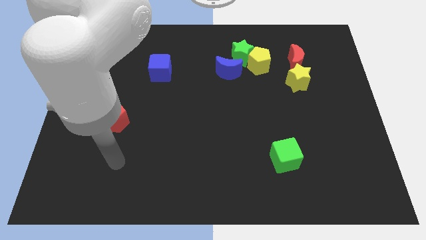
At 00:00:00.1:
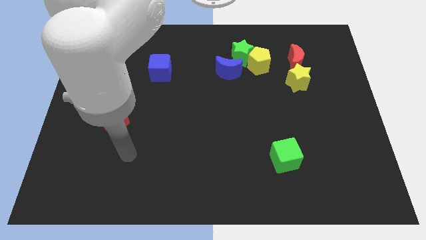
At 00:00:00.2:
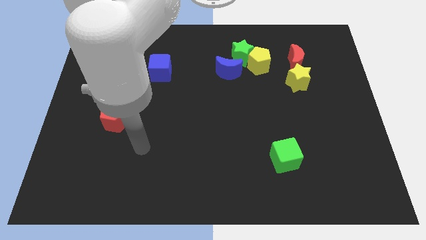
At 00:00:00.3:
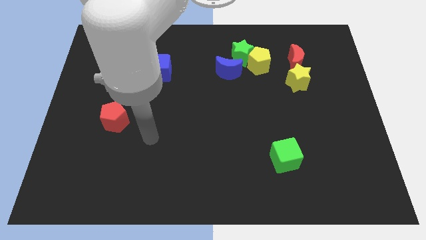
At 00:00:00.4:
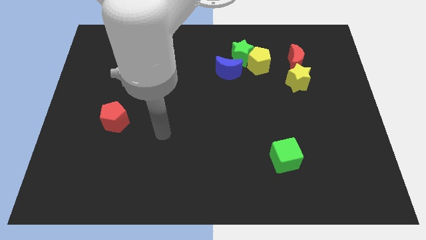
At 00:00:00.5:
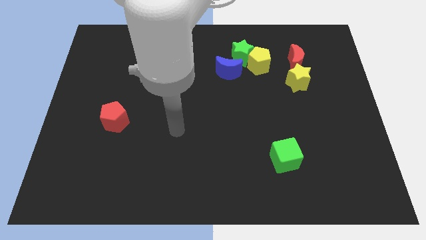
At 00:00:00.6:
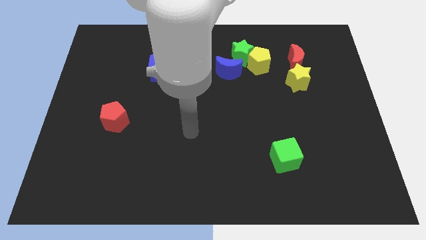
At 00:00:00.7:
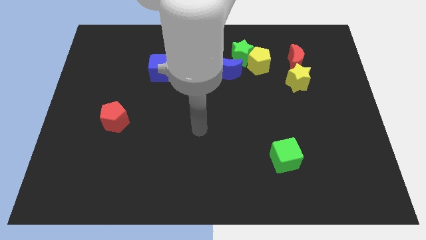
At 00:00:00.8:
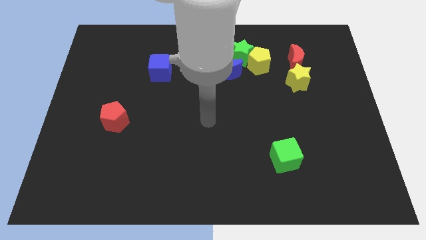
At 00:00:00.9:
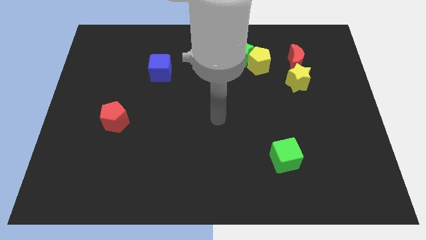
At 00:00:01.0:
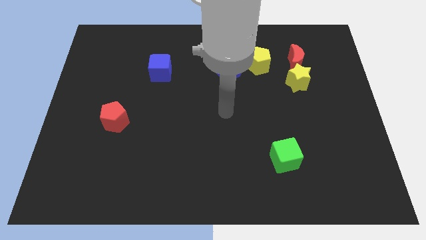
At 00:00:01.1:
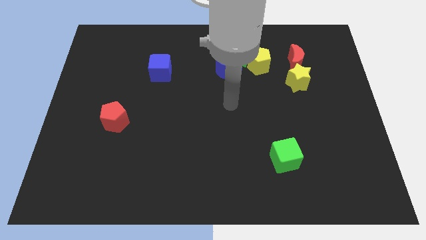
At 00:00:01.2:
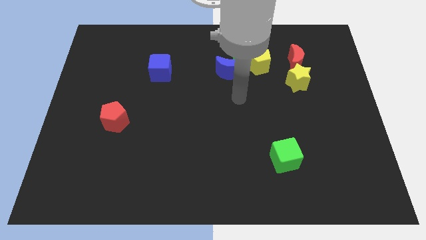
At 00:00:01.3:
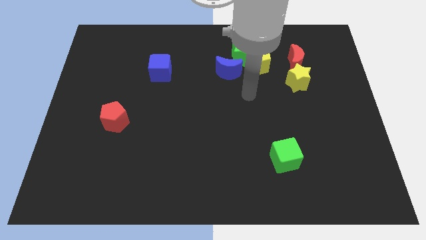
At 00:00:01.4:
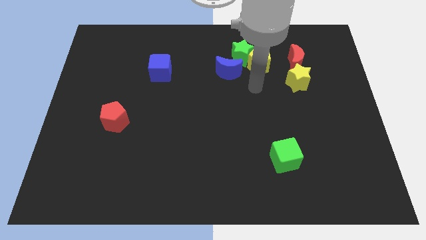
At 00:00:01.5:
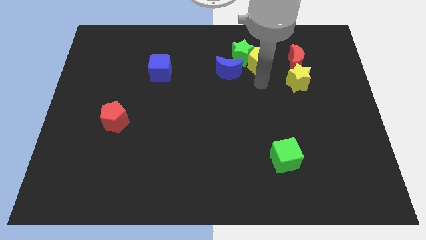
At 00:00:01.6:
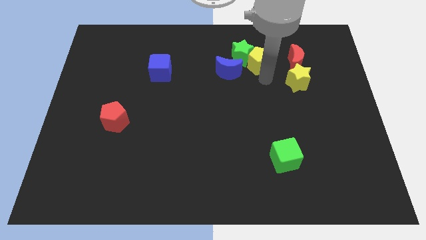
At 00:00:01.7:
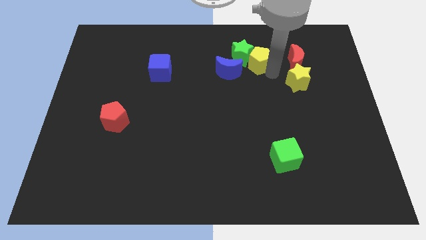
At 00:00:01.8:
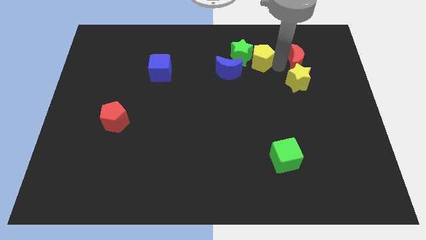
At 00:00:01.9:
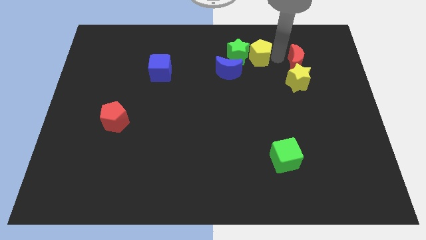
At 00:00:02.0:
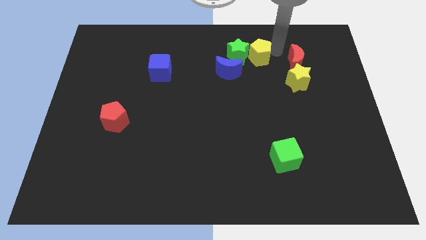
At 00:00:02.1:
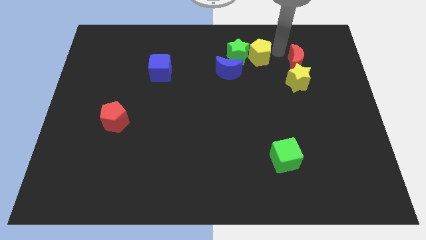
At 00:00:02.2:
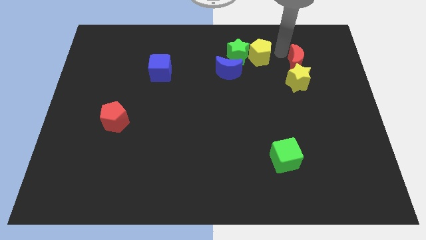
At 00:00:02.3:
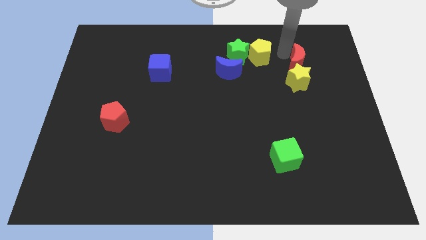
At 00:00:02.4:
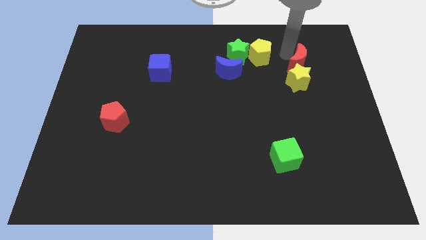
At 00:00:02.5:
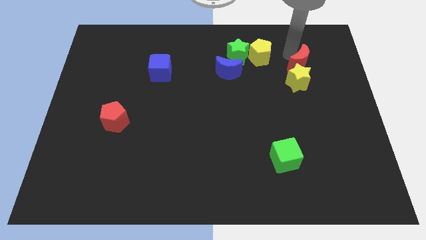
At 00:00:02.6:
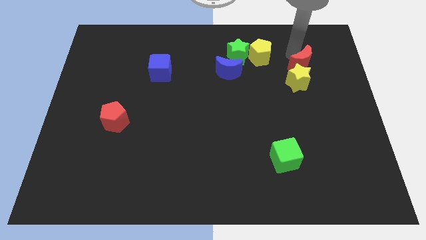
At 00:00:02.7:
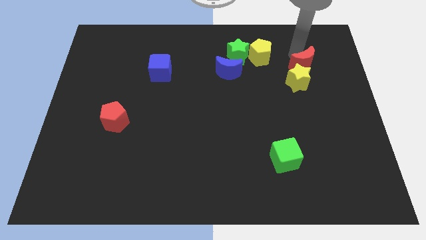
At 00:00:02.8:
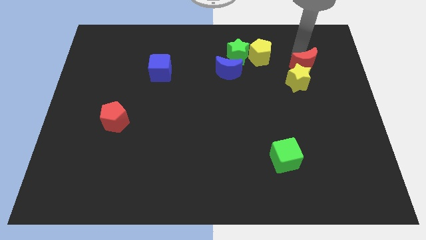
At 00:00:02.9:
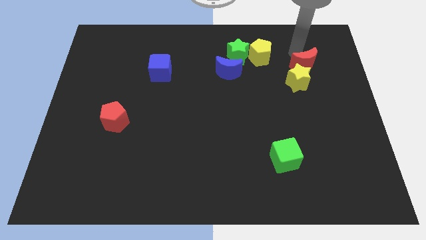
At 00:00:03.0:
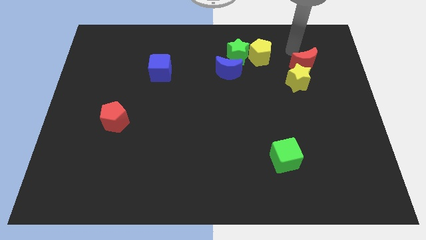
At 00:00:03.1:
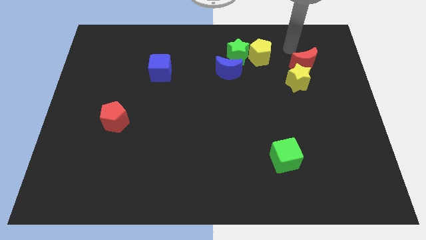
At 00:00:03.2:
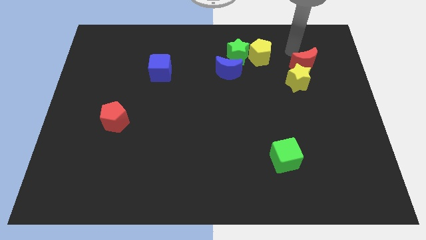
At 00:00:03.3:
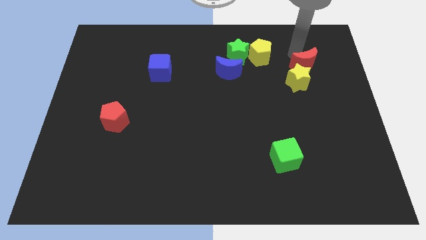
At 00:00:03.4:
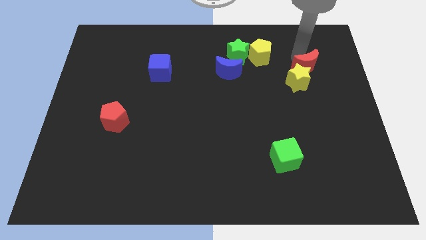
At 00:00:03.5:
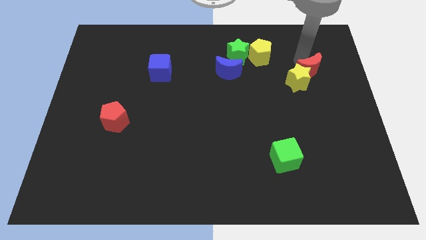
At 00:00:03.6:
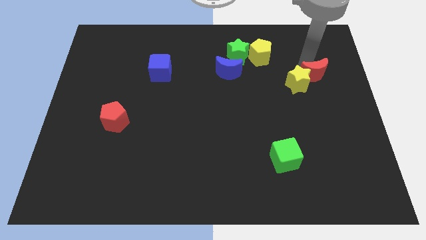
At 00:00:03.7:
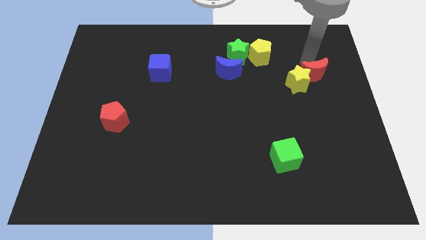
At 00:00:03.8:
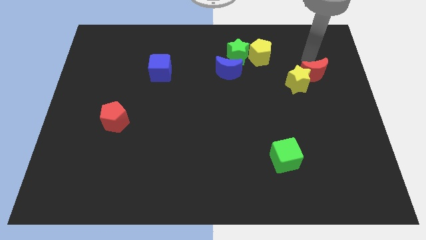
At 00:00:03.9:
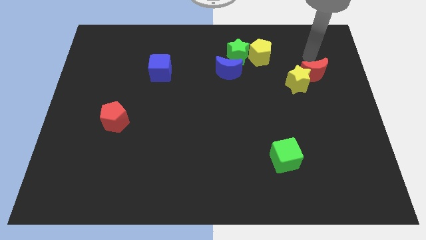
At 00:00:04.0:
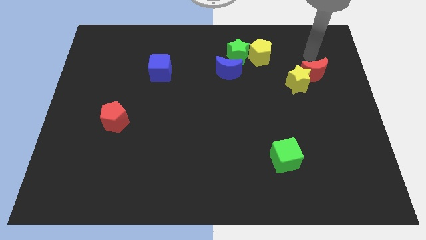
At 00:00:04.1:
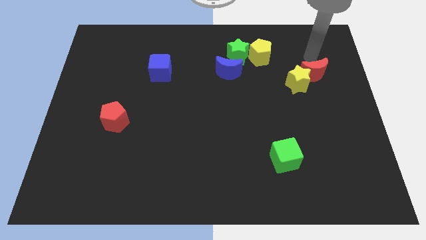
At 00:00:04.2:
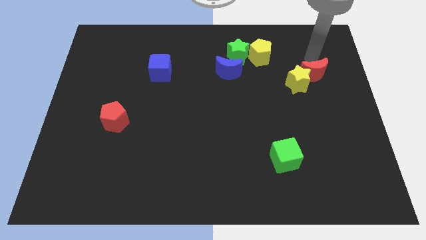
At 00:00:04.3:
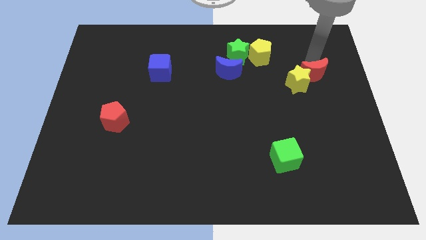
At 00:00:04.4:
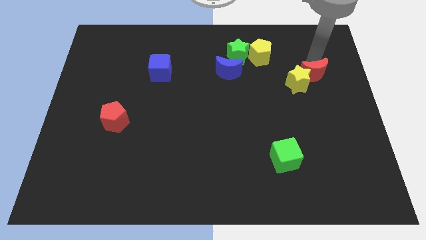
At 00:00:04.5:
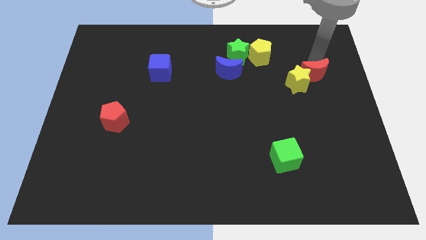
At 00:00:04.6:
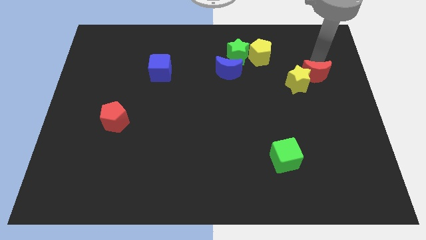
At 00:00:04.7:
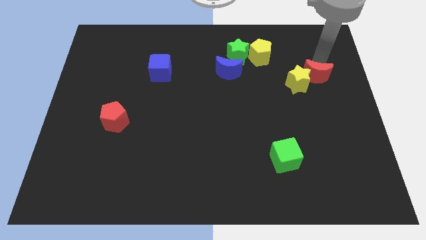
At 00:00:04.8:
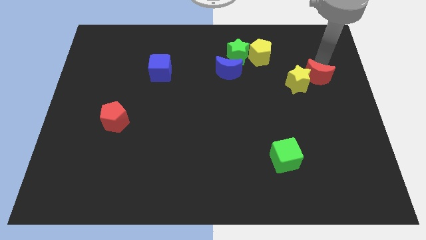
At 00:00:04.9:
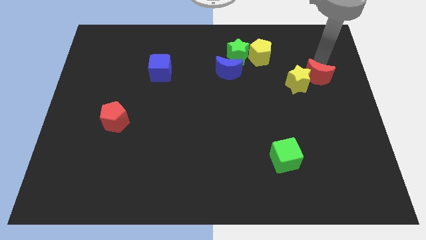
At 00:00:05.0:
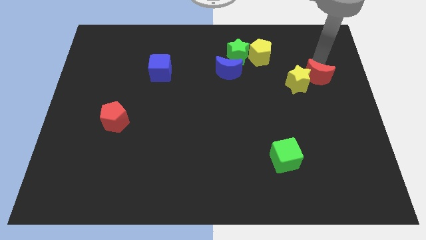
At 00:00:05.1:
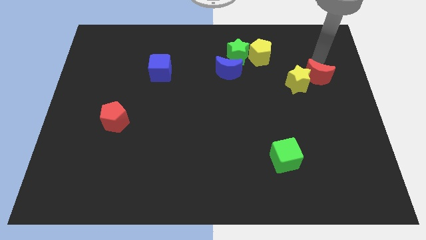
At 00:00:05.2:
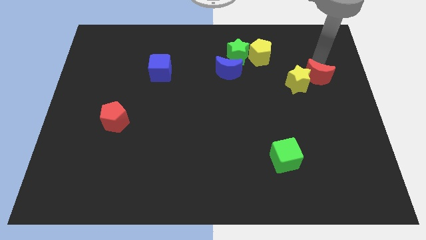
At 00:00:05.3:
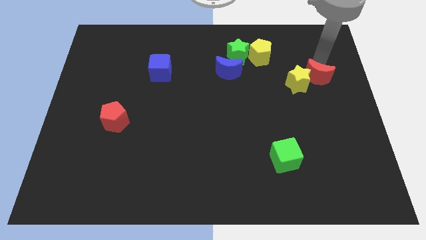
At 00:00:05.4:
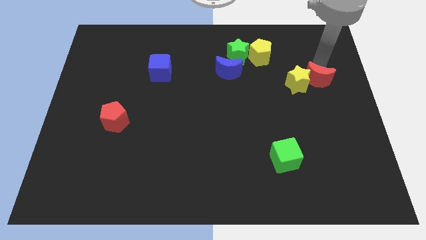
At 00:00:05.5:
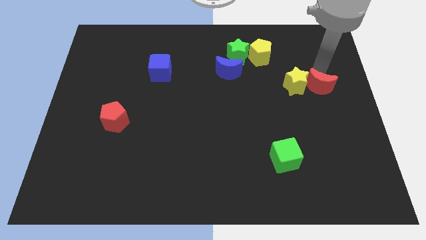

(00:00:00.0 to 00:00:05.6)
slightly move the red moon downwards

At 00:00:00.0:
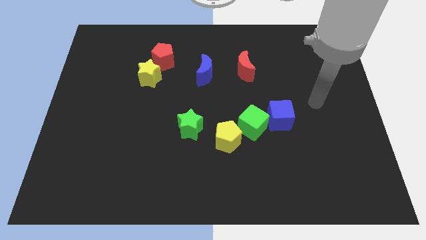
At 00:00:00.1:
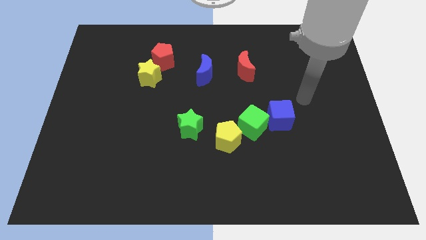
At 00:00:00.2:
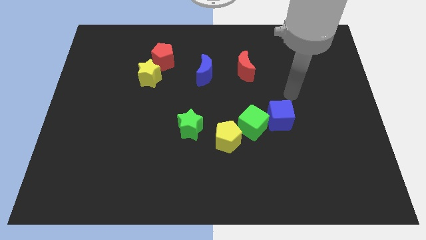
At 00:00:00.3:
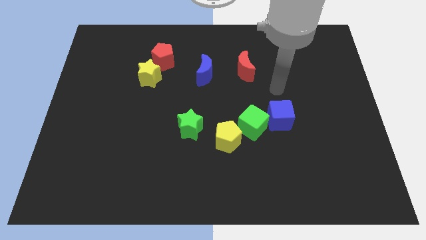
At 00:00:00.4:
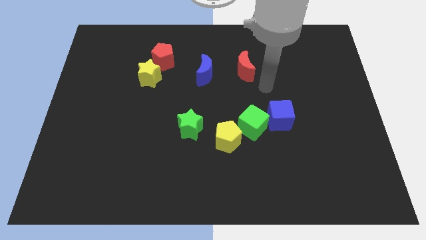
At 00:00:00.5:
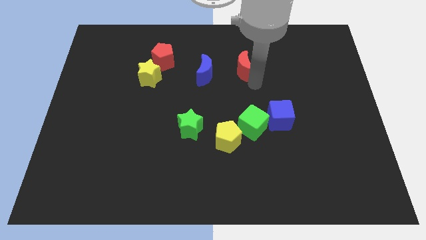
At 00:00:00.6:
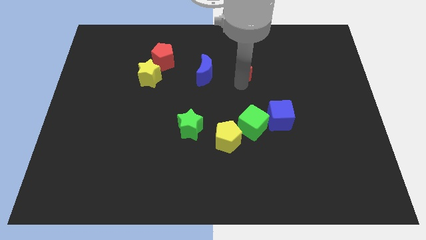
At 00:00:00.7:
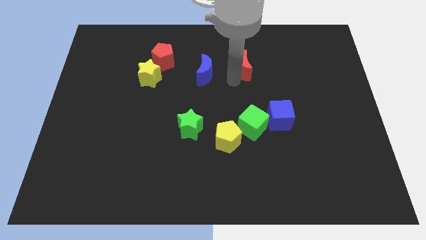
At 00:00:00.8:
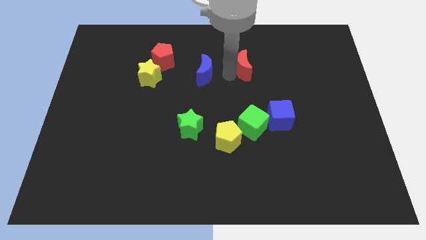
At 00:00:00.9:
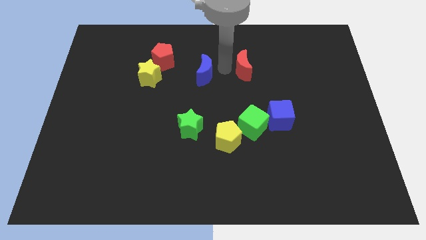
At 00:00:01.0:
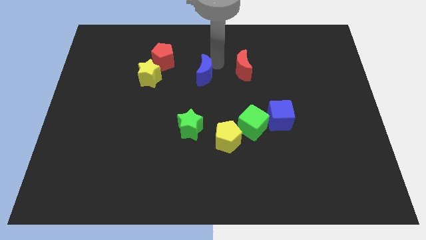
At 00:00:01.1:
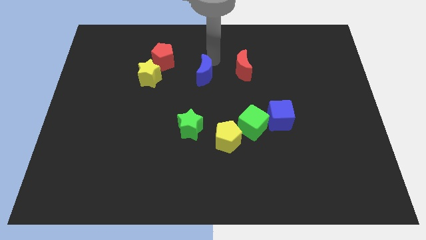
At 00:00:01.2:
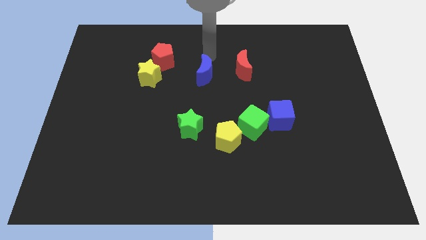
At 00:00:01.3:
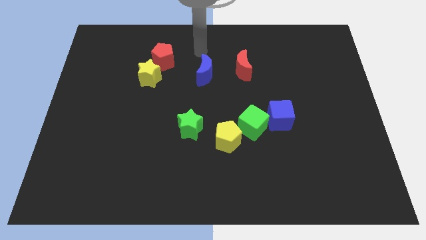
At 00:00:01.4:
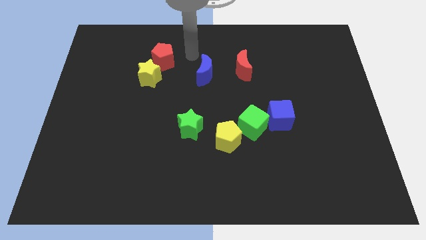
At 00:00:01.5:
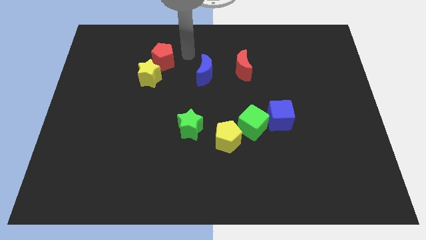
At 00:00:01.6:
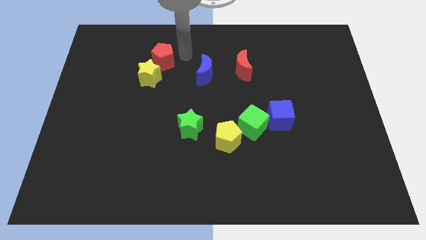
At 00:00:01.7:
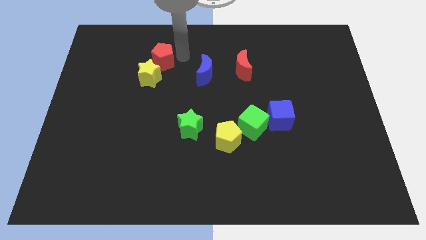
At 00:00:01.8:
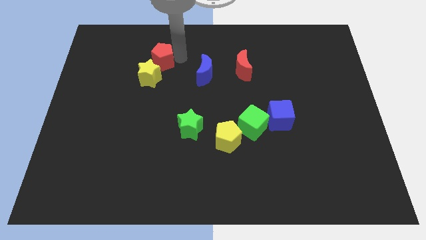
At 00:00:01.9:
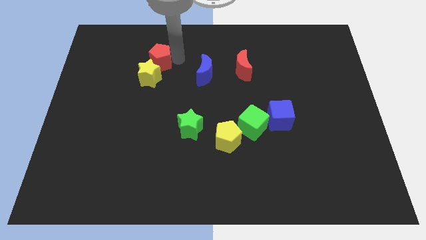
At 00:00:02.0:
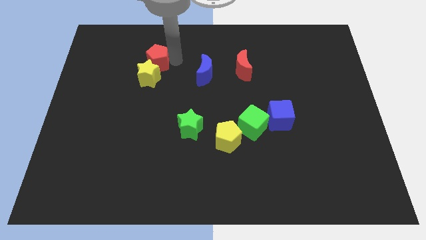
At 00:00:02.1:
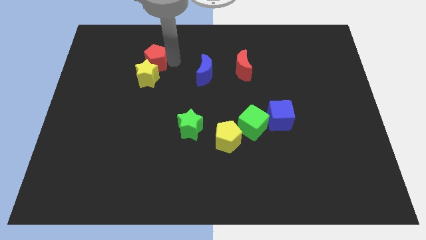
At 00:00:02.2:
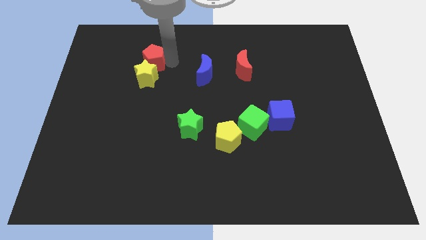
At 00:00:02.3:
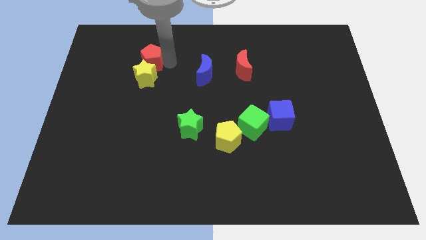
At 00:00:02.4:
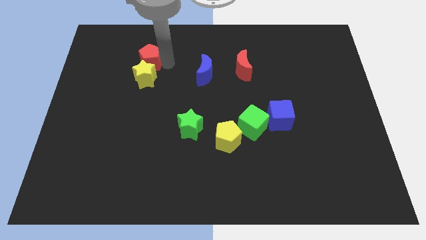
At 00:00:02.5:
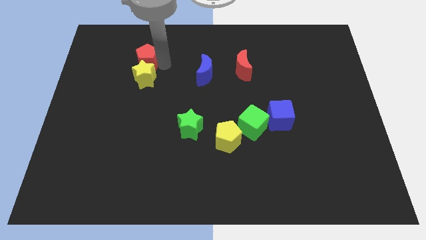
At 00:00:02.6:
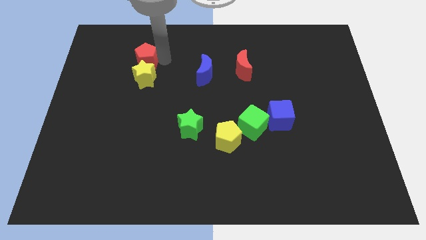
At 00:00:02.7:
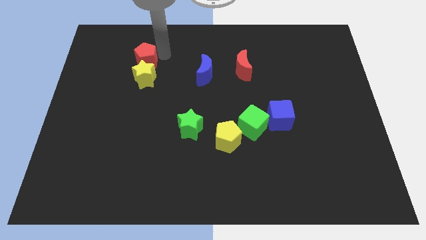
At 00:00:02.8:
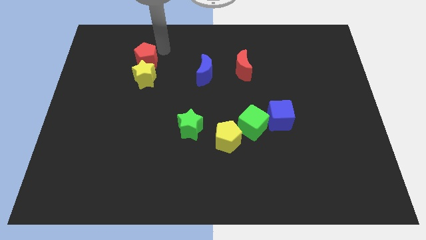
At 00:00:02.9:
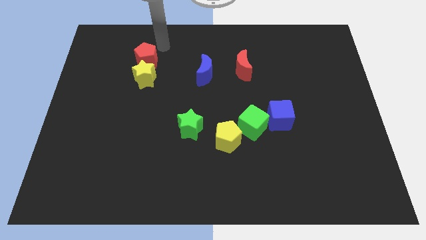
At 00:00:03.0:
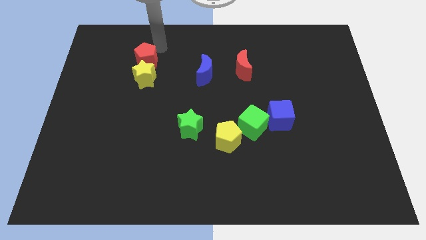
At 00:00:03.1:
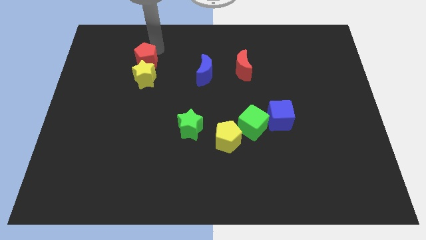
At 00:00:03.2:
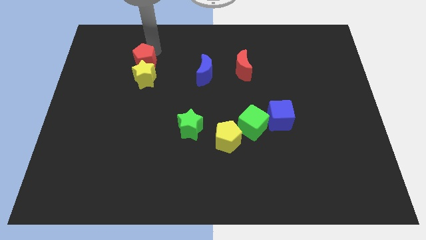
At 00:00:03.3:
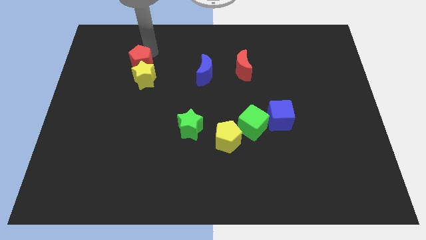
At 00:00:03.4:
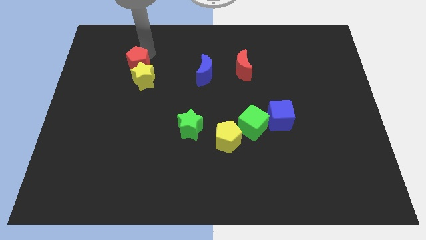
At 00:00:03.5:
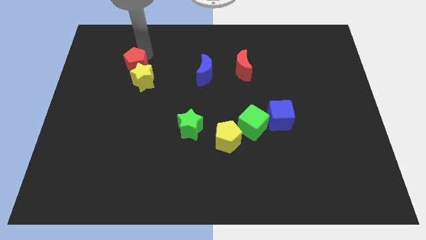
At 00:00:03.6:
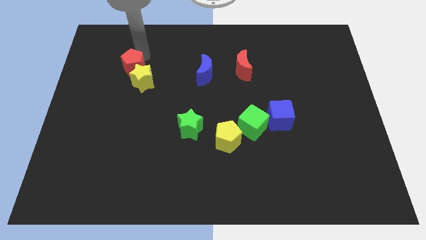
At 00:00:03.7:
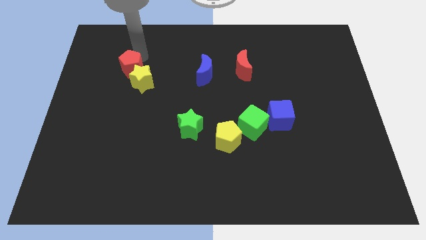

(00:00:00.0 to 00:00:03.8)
slightly push the red pentagon down and to the left diagonally
